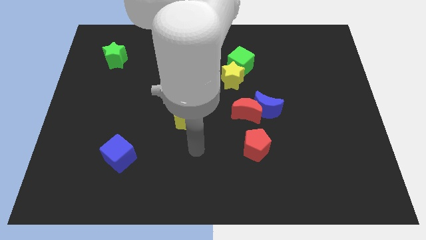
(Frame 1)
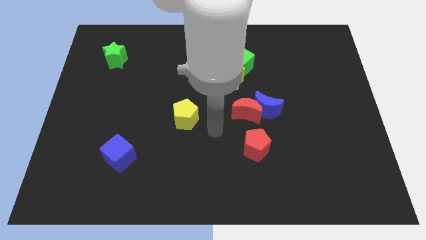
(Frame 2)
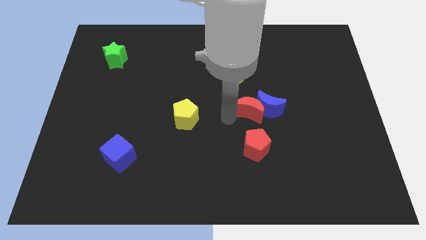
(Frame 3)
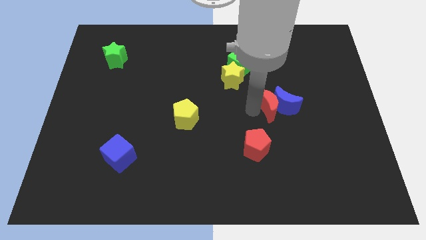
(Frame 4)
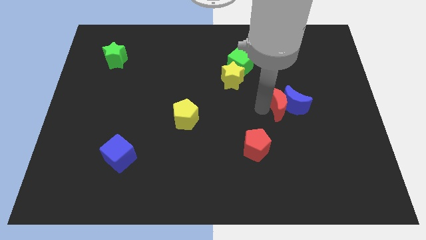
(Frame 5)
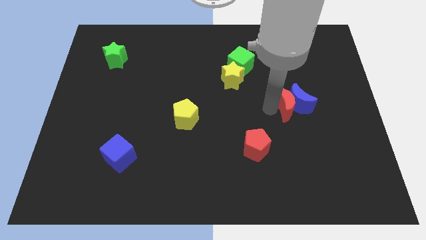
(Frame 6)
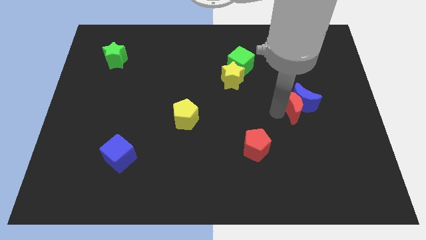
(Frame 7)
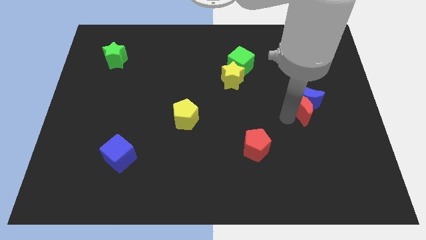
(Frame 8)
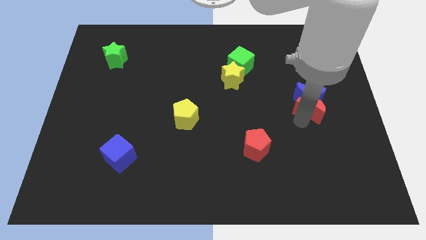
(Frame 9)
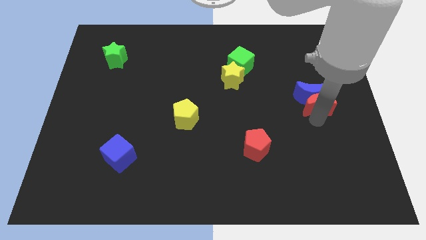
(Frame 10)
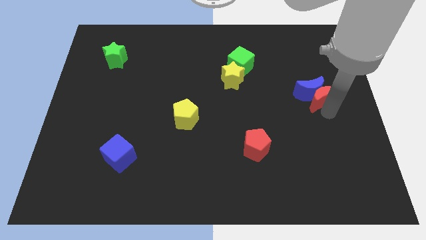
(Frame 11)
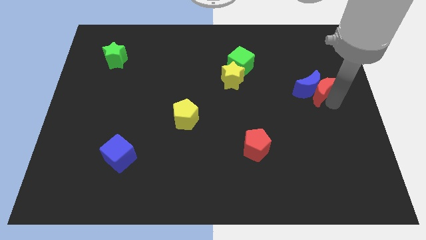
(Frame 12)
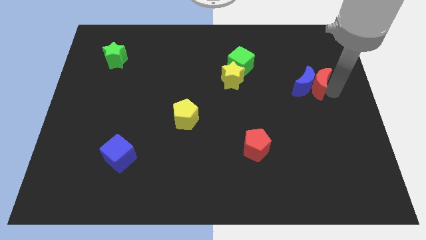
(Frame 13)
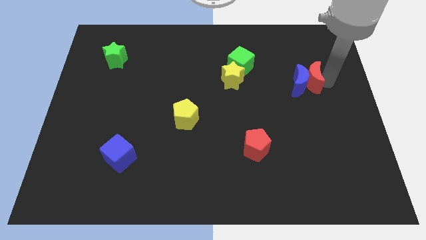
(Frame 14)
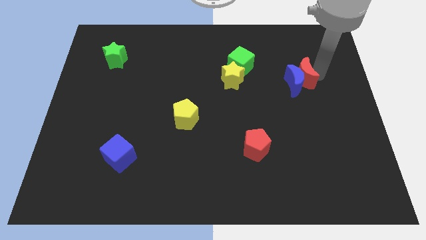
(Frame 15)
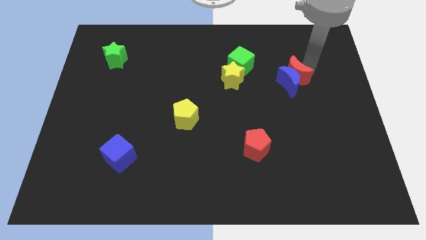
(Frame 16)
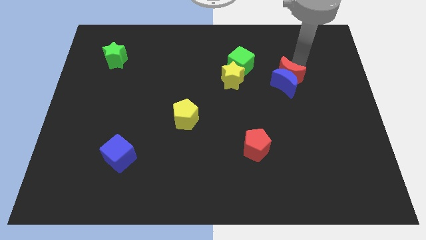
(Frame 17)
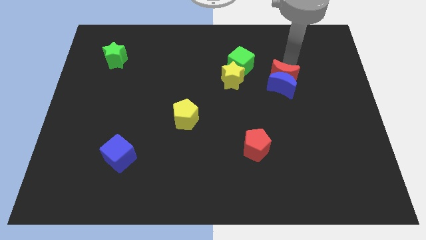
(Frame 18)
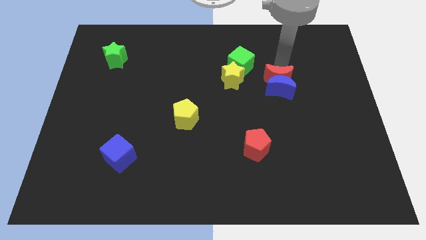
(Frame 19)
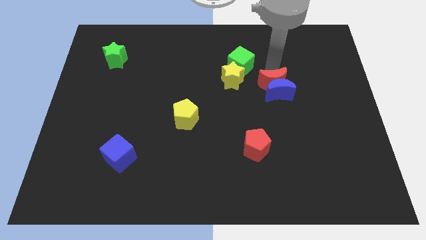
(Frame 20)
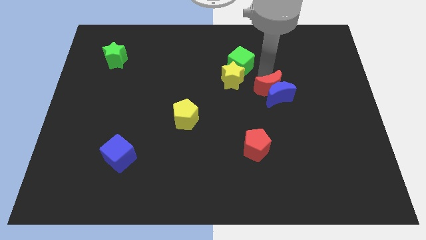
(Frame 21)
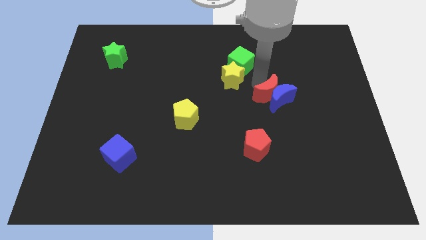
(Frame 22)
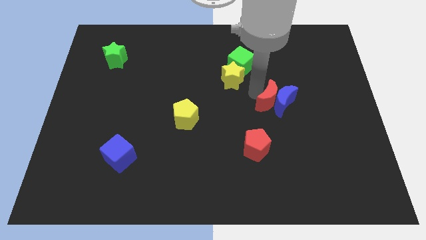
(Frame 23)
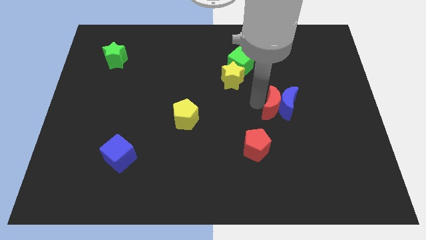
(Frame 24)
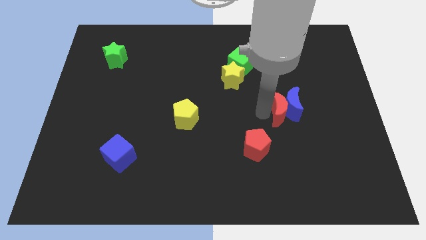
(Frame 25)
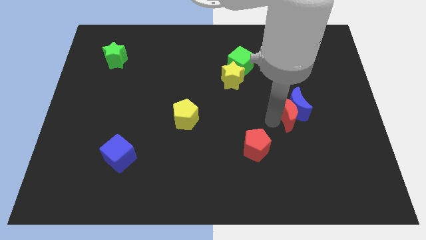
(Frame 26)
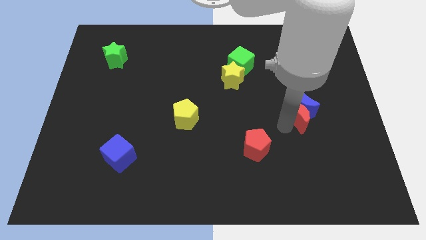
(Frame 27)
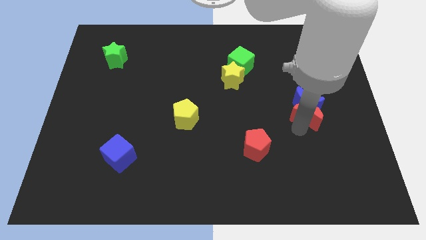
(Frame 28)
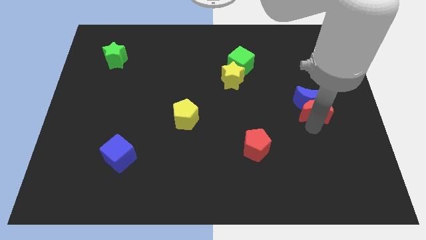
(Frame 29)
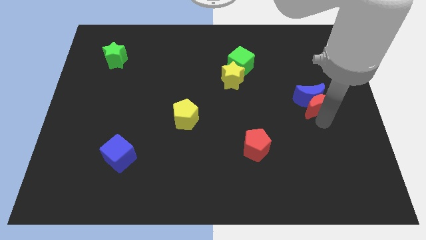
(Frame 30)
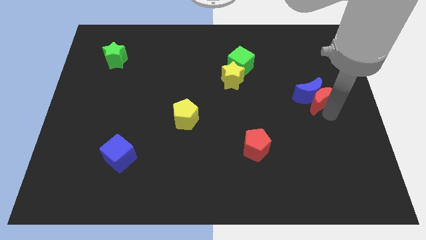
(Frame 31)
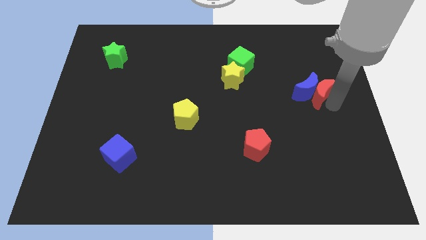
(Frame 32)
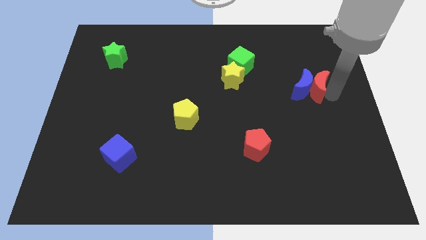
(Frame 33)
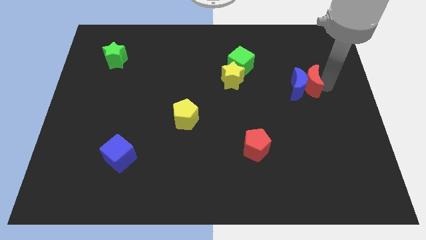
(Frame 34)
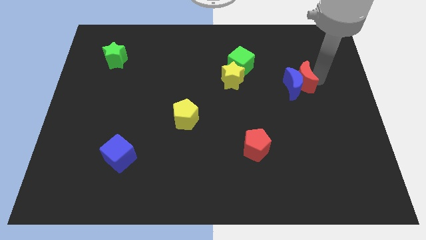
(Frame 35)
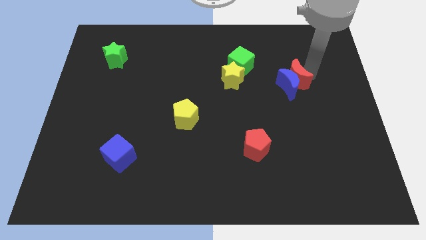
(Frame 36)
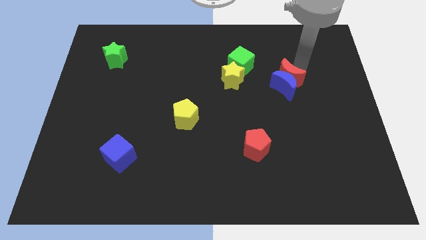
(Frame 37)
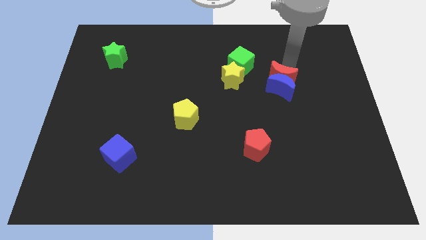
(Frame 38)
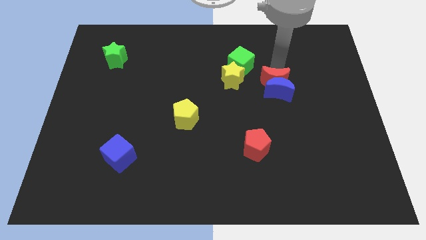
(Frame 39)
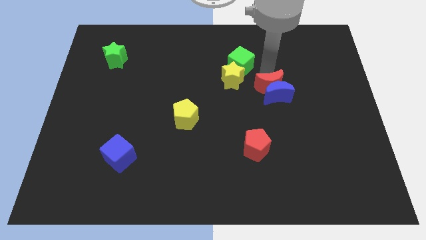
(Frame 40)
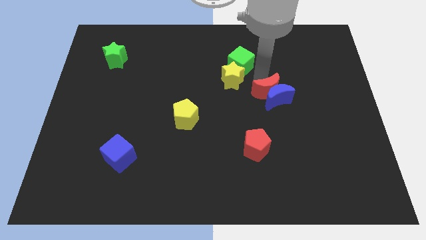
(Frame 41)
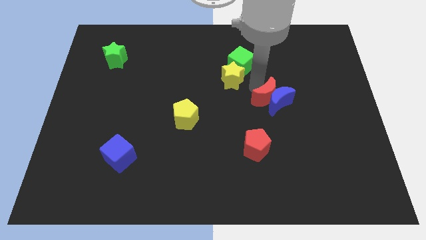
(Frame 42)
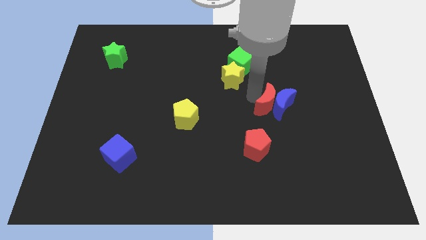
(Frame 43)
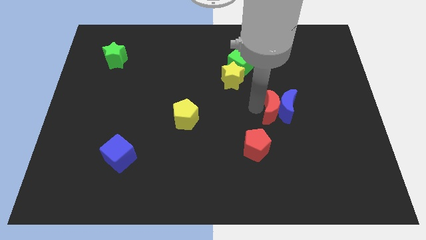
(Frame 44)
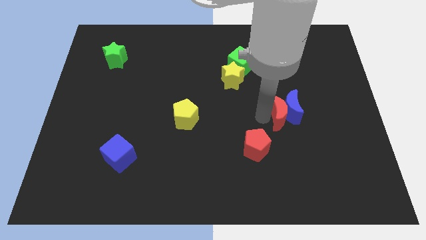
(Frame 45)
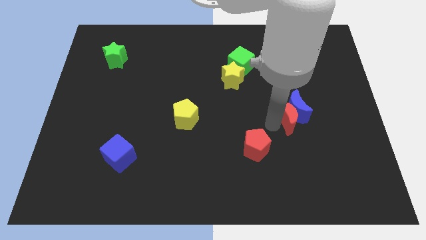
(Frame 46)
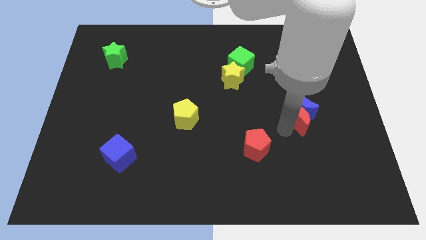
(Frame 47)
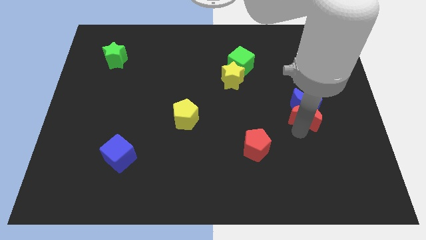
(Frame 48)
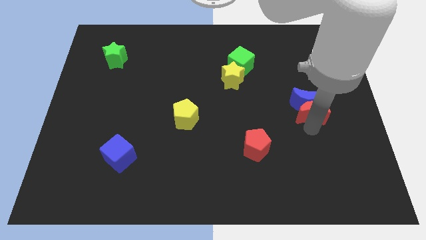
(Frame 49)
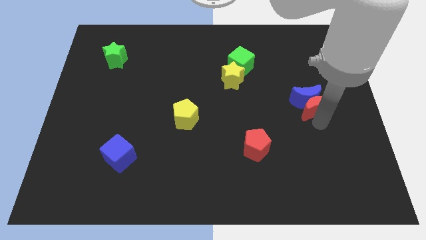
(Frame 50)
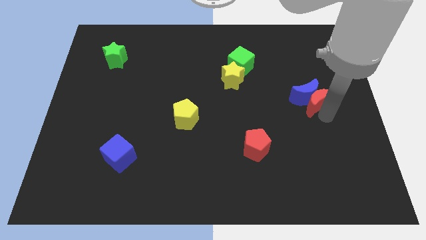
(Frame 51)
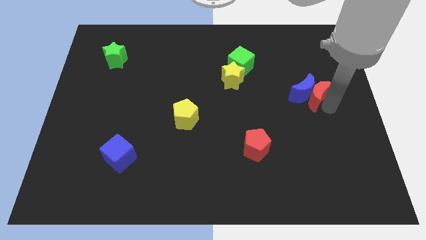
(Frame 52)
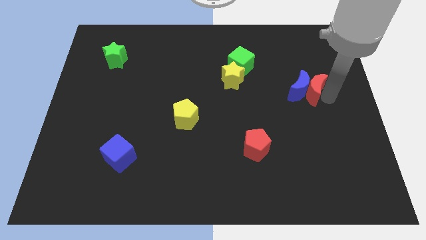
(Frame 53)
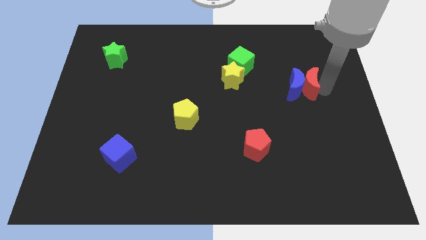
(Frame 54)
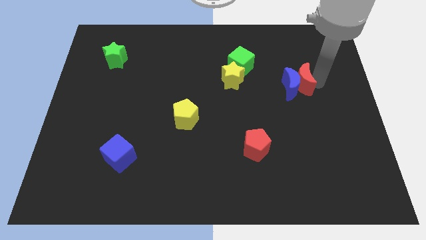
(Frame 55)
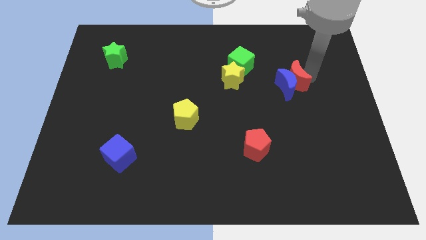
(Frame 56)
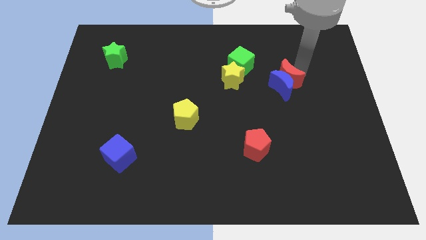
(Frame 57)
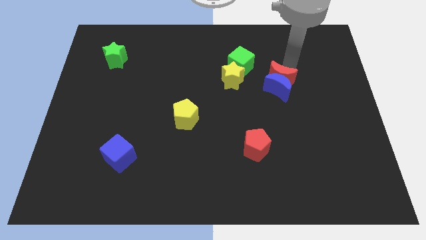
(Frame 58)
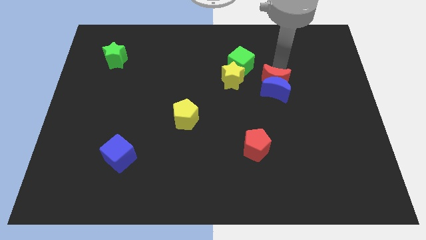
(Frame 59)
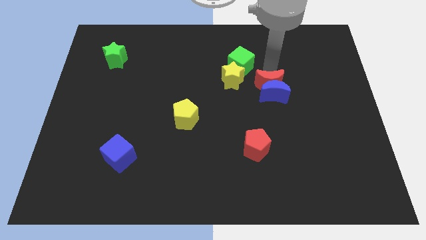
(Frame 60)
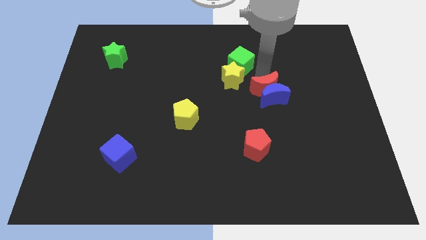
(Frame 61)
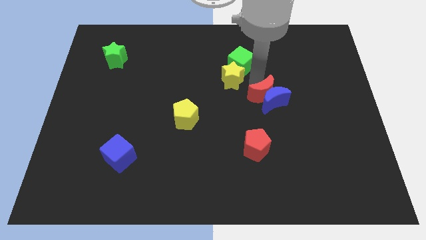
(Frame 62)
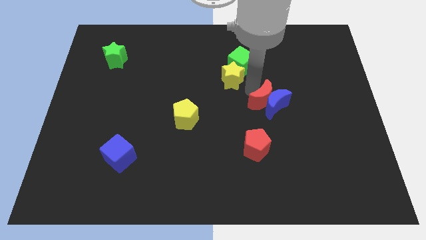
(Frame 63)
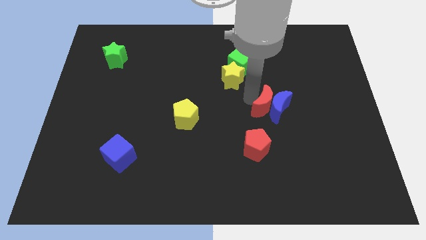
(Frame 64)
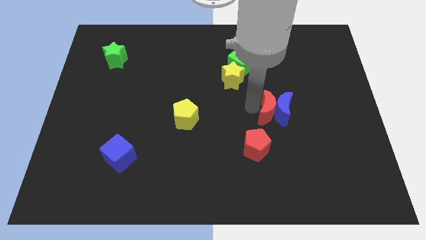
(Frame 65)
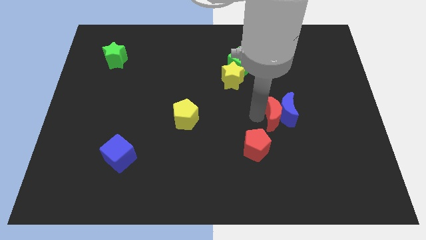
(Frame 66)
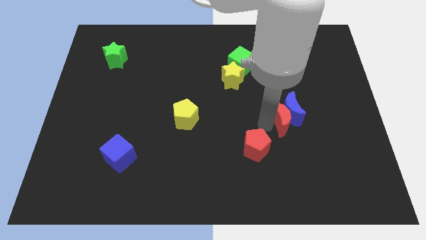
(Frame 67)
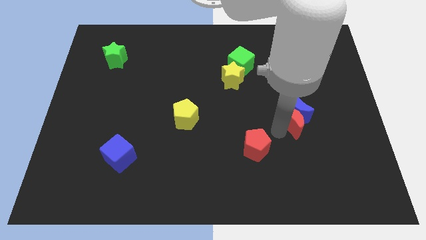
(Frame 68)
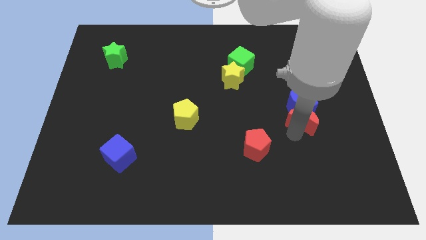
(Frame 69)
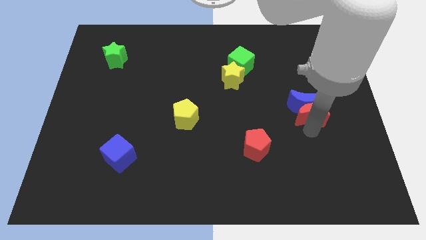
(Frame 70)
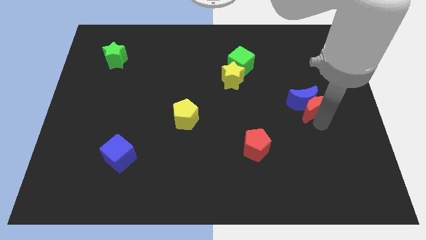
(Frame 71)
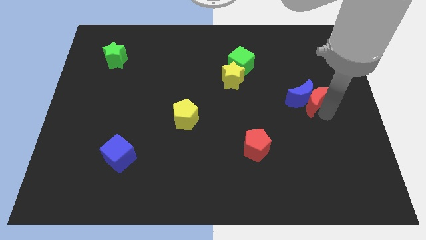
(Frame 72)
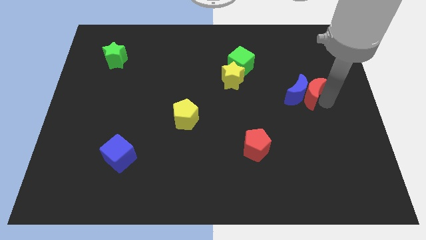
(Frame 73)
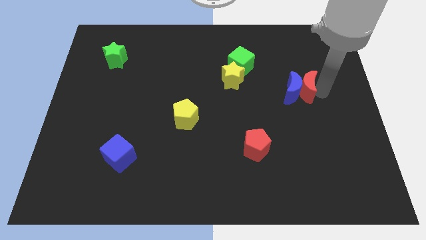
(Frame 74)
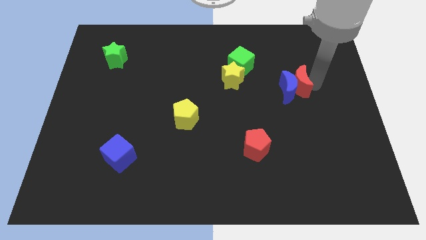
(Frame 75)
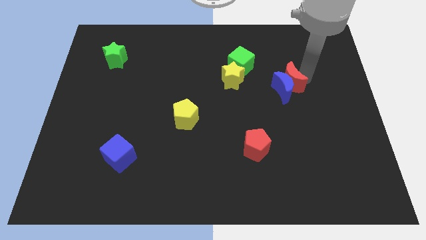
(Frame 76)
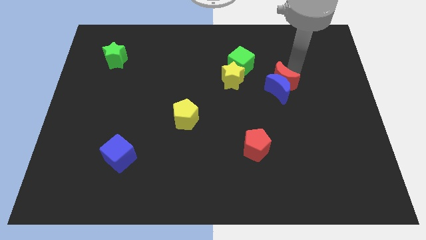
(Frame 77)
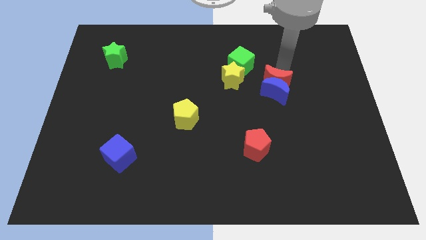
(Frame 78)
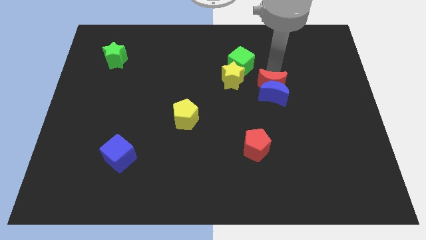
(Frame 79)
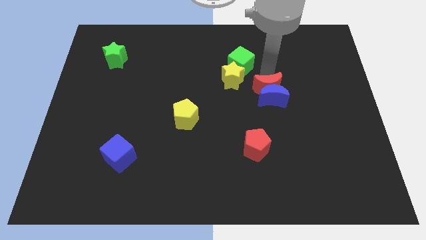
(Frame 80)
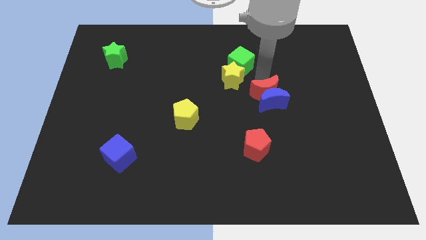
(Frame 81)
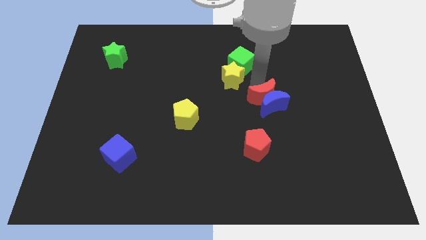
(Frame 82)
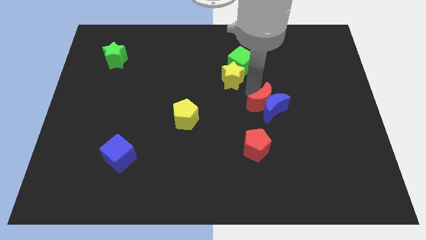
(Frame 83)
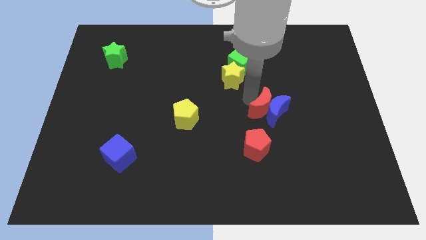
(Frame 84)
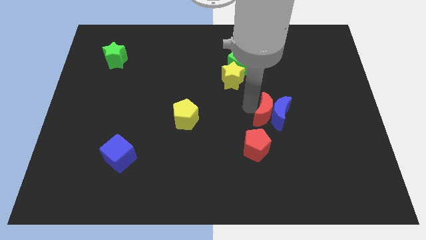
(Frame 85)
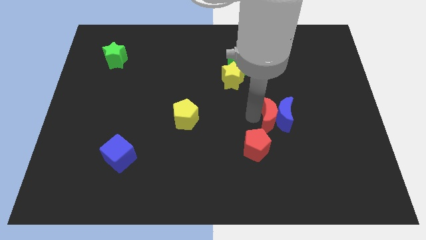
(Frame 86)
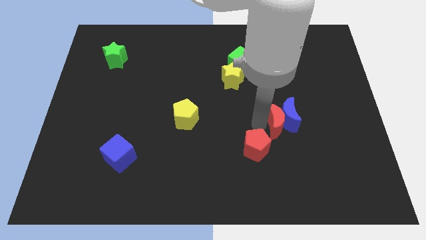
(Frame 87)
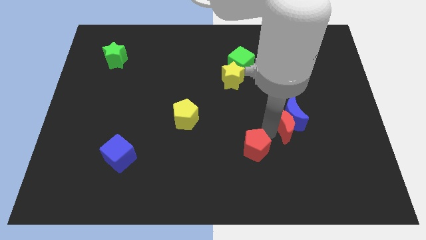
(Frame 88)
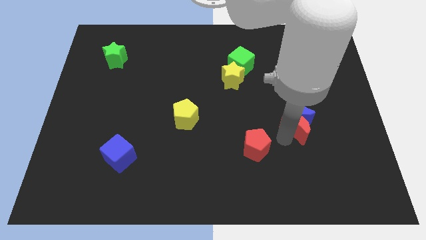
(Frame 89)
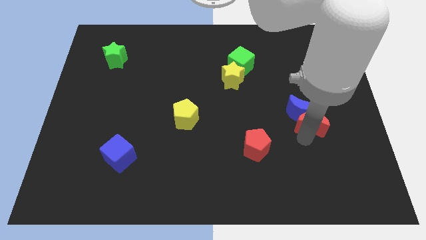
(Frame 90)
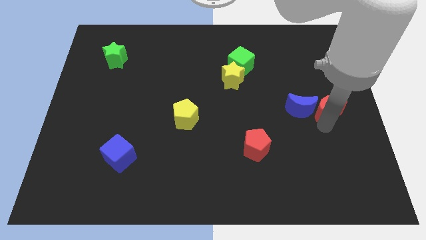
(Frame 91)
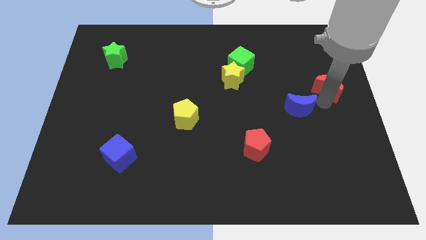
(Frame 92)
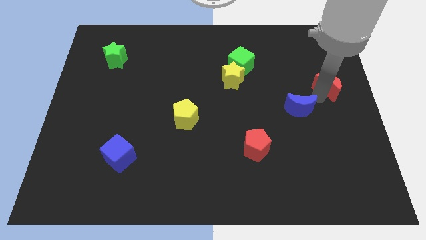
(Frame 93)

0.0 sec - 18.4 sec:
move the blue moon away from the red moon
